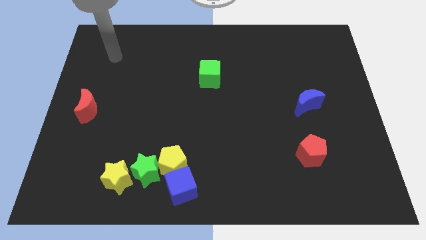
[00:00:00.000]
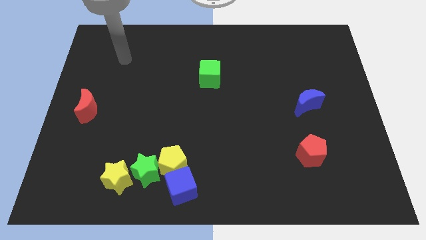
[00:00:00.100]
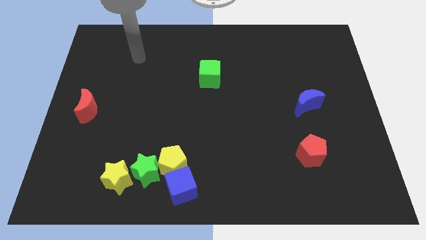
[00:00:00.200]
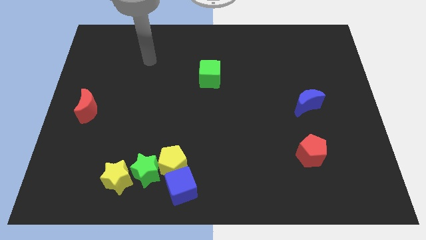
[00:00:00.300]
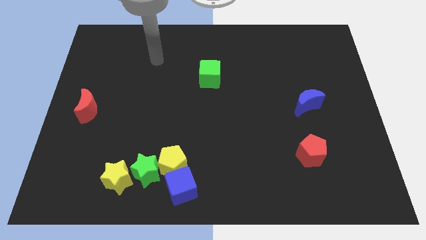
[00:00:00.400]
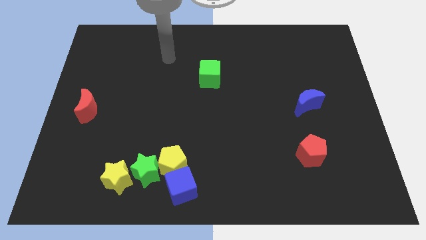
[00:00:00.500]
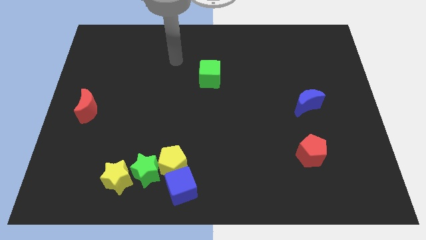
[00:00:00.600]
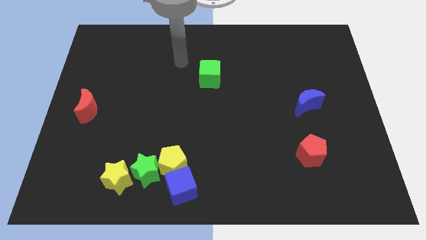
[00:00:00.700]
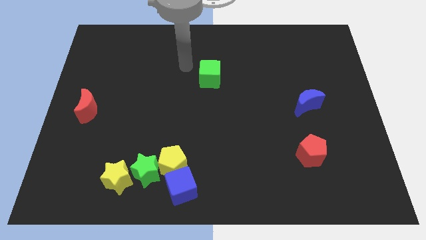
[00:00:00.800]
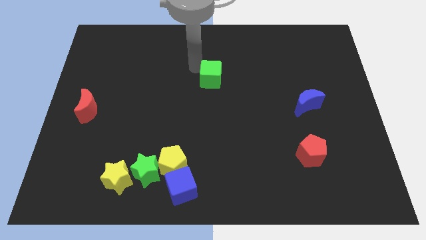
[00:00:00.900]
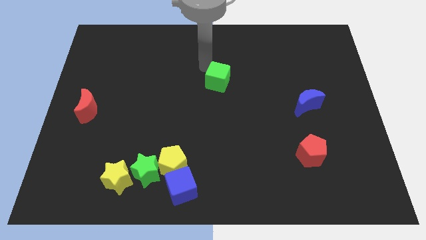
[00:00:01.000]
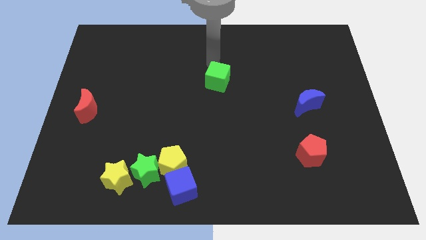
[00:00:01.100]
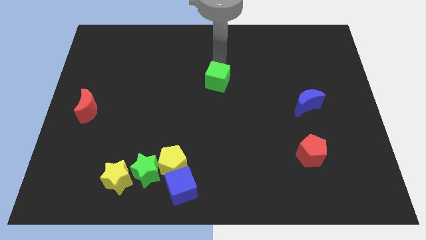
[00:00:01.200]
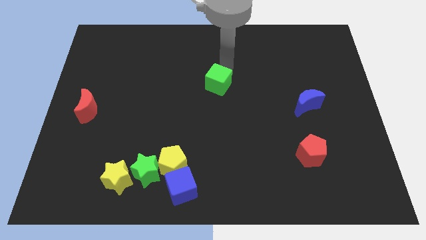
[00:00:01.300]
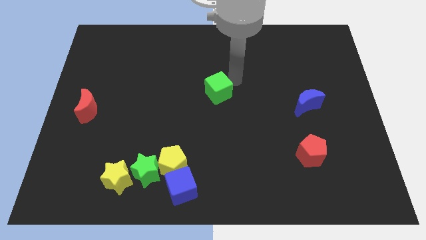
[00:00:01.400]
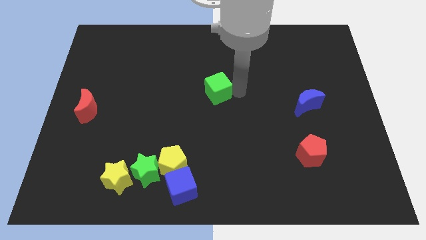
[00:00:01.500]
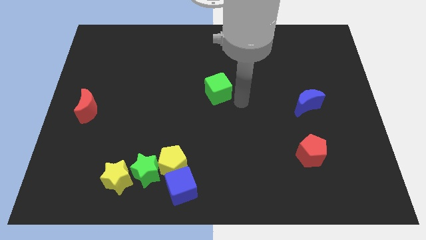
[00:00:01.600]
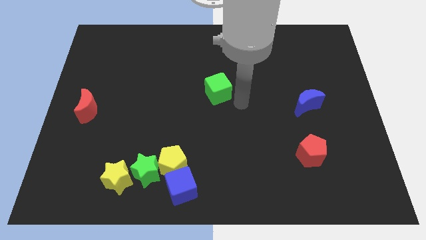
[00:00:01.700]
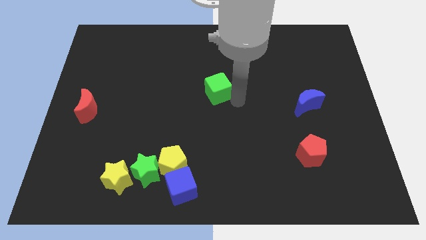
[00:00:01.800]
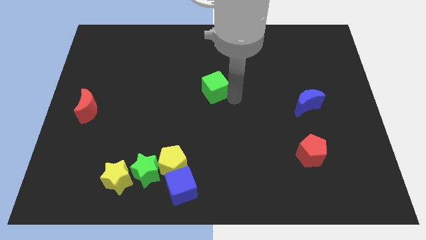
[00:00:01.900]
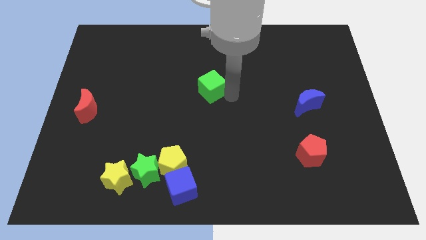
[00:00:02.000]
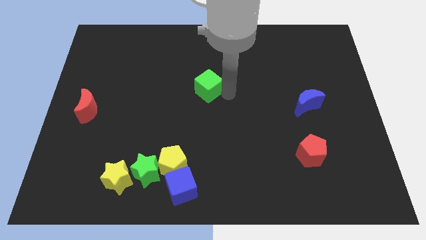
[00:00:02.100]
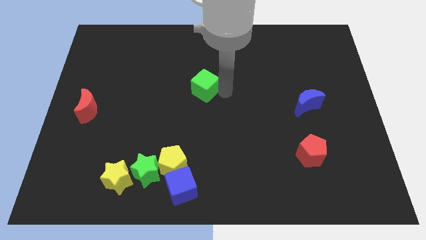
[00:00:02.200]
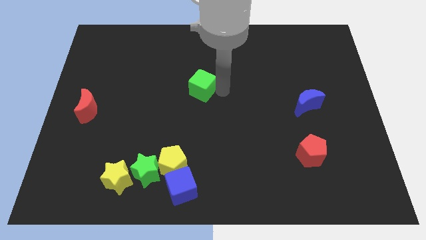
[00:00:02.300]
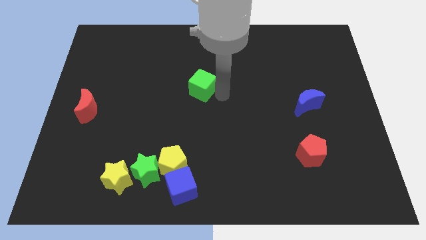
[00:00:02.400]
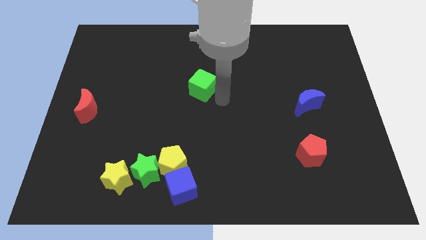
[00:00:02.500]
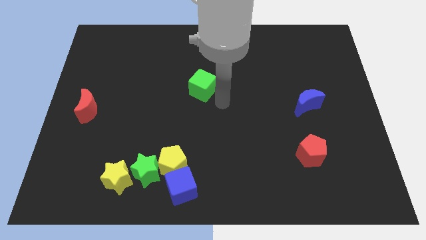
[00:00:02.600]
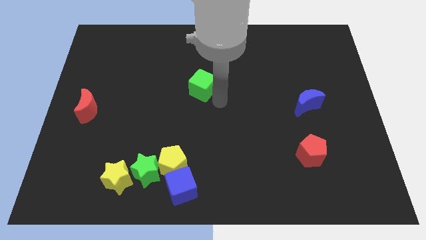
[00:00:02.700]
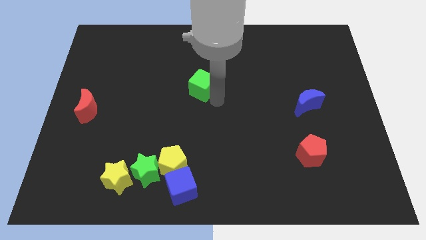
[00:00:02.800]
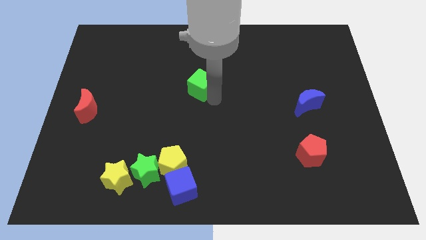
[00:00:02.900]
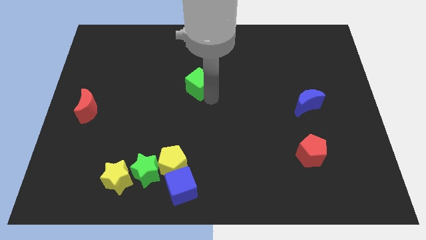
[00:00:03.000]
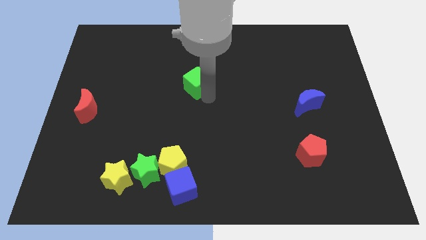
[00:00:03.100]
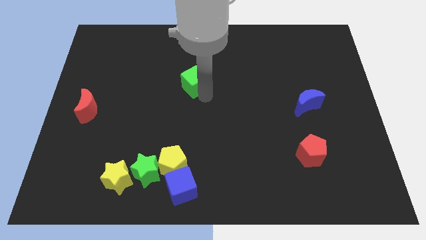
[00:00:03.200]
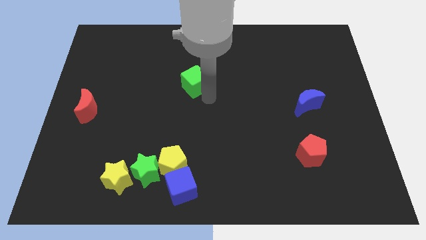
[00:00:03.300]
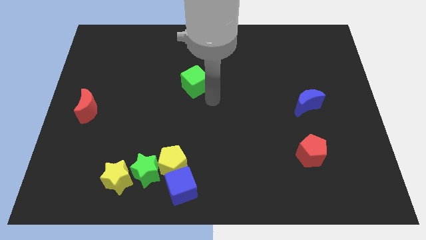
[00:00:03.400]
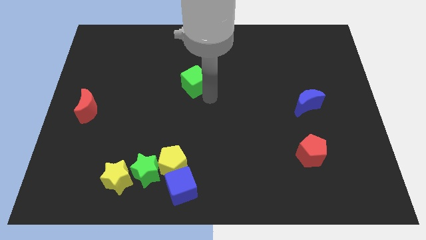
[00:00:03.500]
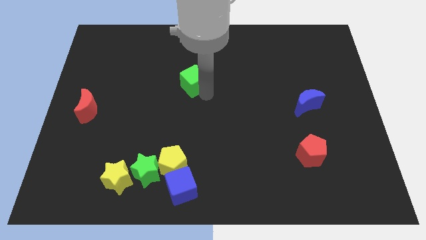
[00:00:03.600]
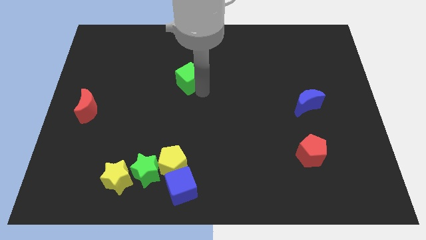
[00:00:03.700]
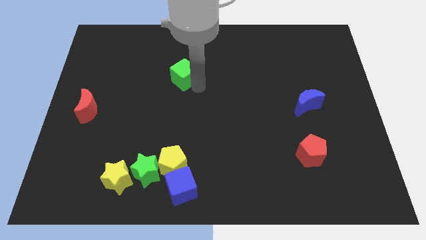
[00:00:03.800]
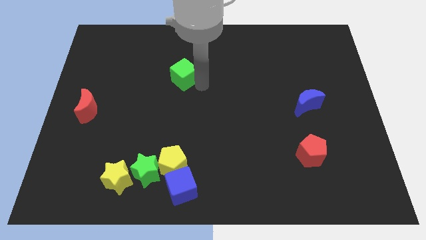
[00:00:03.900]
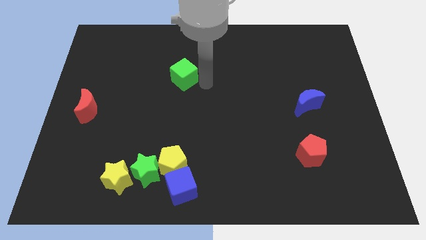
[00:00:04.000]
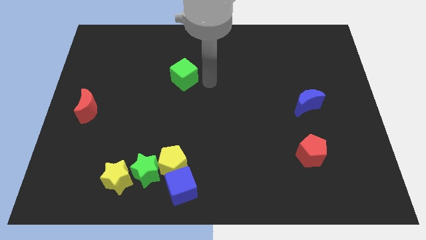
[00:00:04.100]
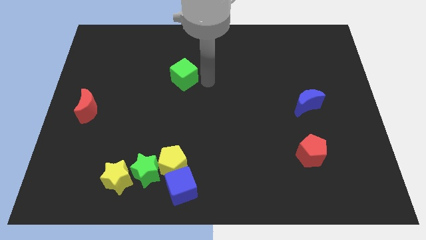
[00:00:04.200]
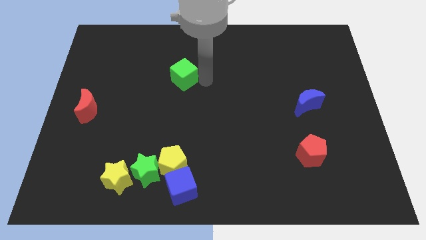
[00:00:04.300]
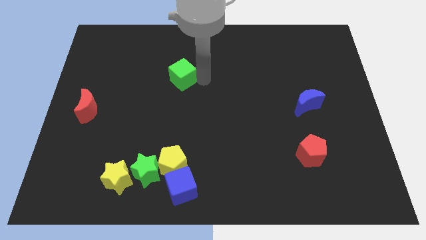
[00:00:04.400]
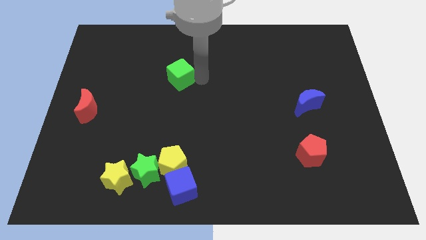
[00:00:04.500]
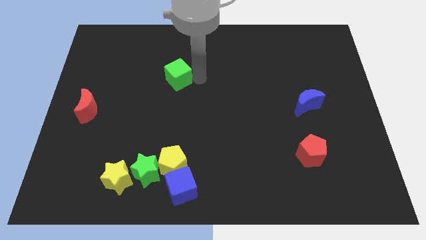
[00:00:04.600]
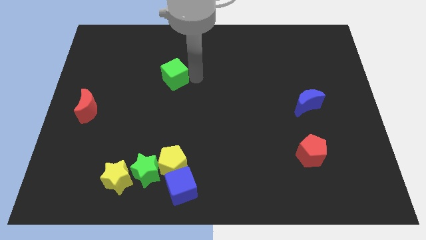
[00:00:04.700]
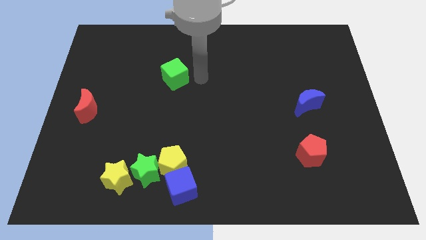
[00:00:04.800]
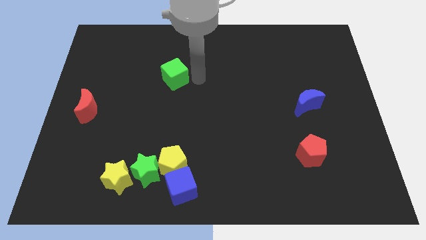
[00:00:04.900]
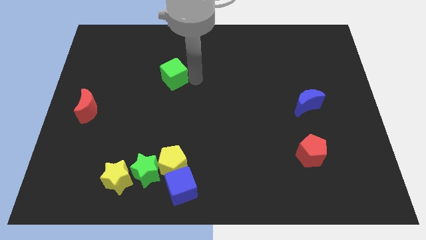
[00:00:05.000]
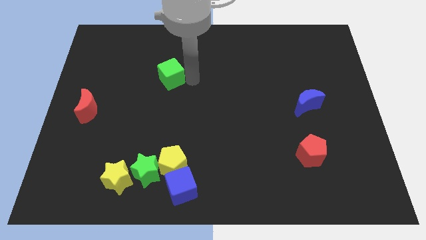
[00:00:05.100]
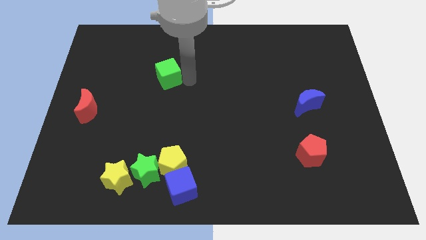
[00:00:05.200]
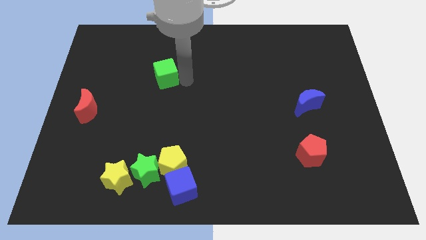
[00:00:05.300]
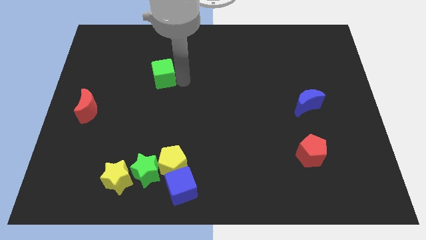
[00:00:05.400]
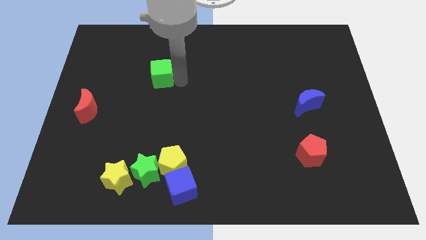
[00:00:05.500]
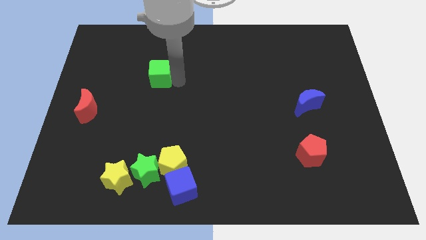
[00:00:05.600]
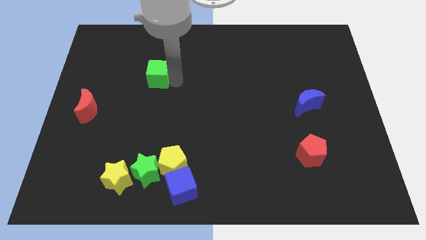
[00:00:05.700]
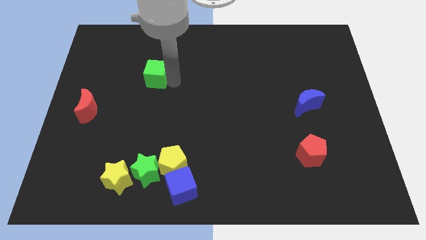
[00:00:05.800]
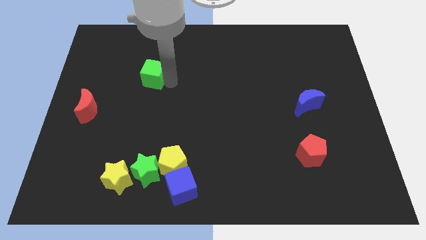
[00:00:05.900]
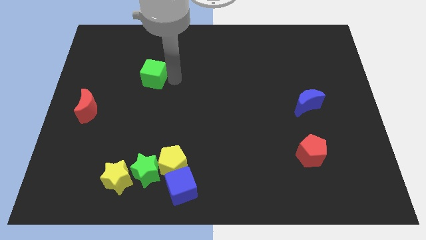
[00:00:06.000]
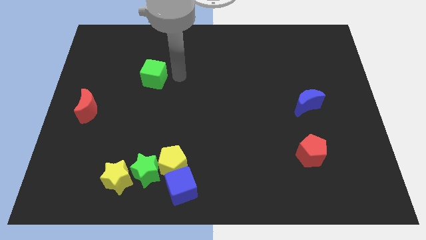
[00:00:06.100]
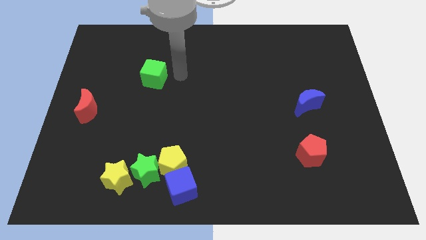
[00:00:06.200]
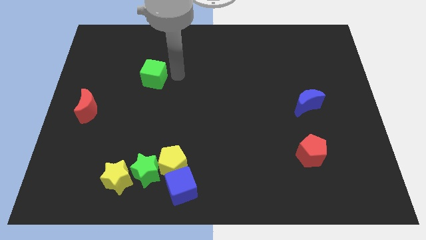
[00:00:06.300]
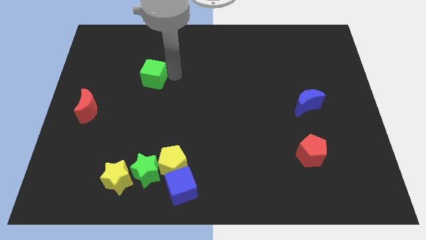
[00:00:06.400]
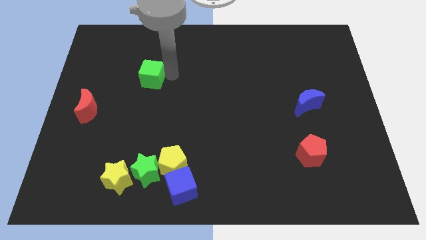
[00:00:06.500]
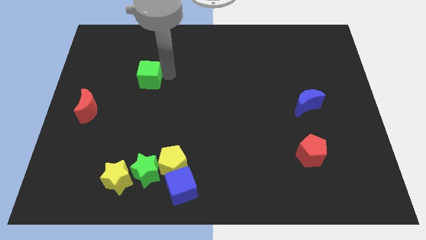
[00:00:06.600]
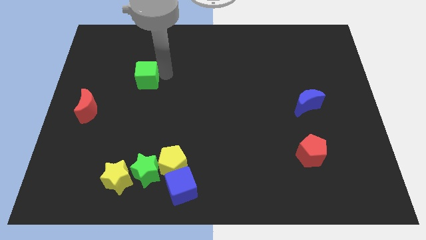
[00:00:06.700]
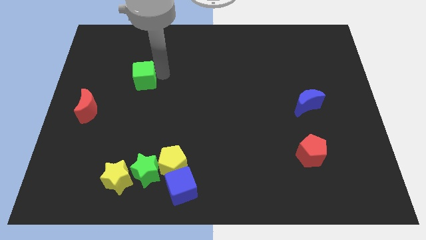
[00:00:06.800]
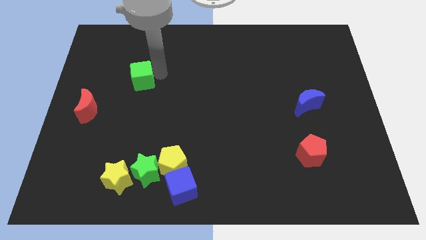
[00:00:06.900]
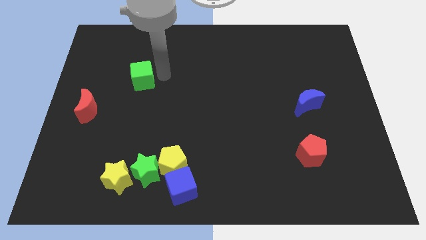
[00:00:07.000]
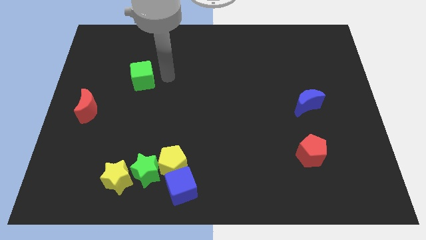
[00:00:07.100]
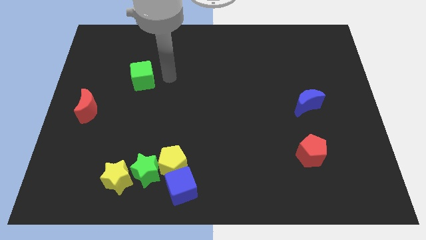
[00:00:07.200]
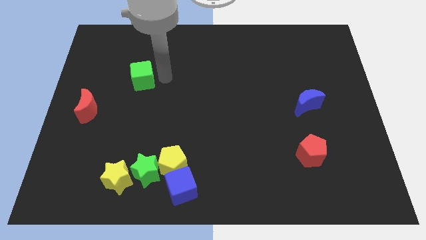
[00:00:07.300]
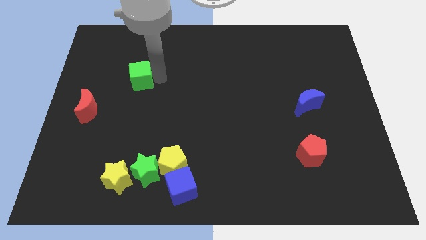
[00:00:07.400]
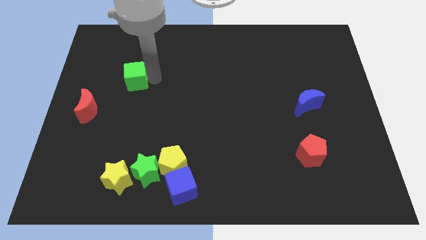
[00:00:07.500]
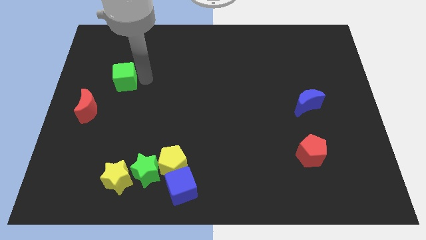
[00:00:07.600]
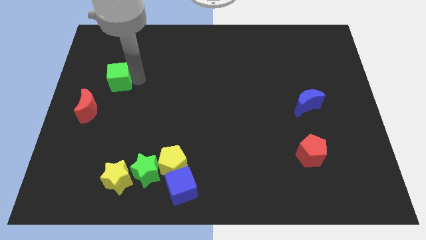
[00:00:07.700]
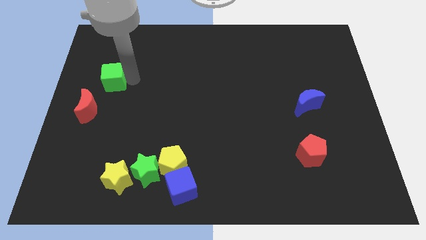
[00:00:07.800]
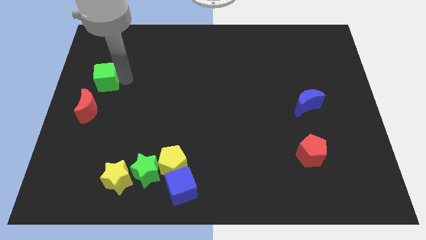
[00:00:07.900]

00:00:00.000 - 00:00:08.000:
slide the green cube to the left side
